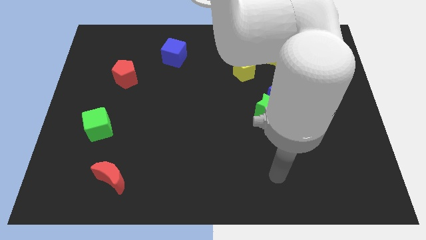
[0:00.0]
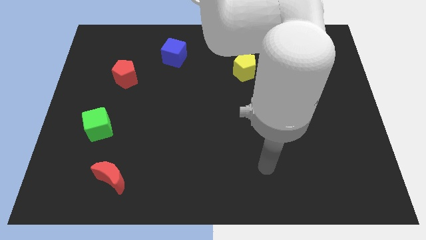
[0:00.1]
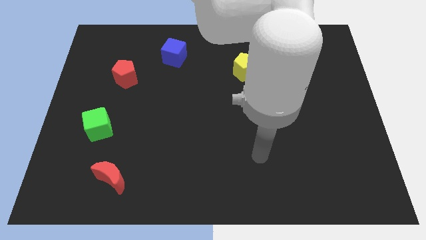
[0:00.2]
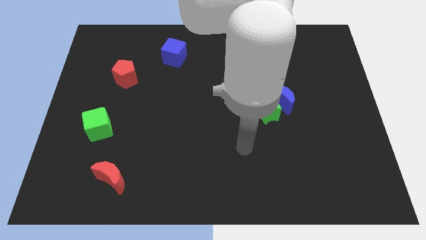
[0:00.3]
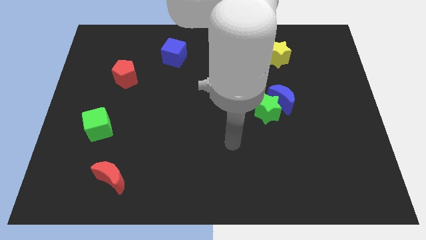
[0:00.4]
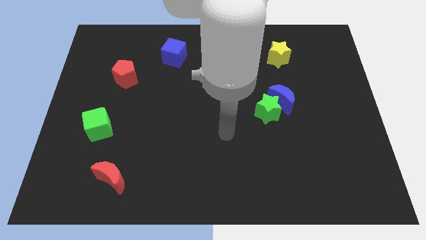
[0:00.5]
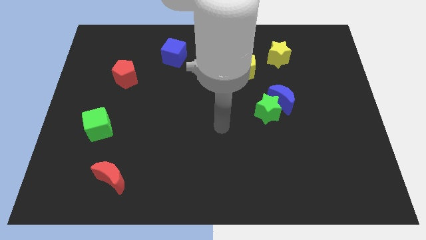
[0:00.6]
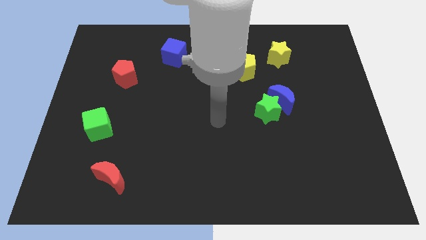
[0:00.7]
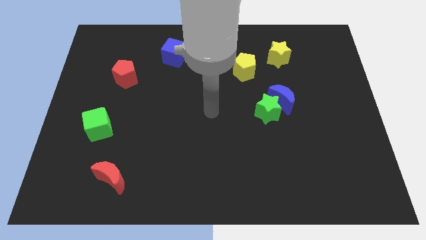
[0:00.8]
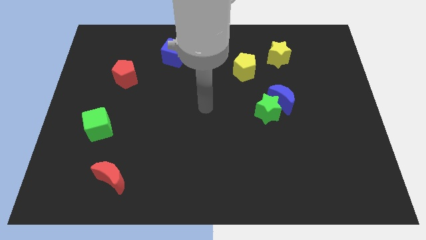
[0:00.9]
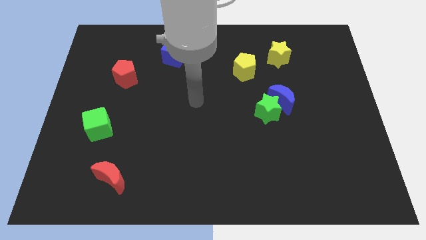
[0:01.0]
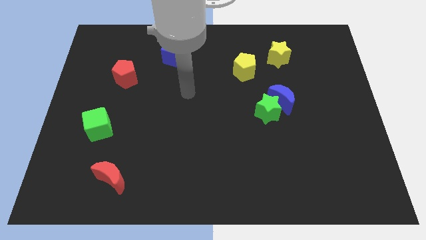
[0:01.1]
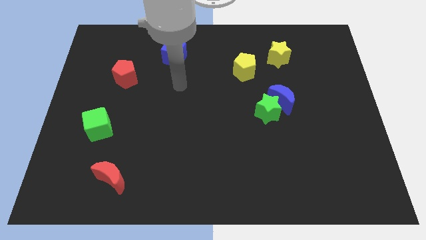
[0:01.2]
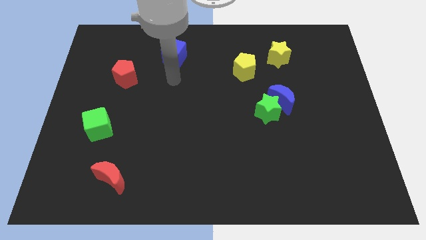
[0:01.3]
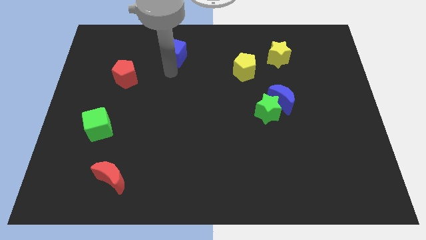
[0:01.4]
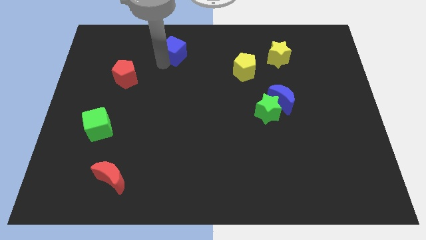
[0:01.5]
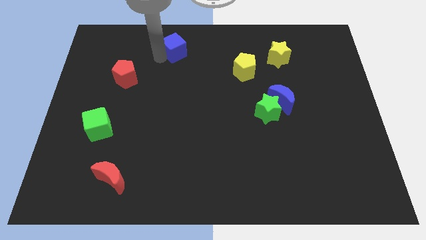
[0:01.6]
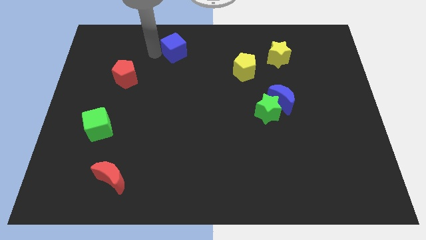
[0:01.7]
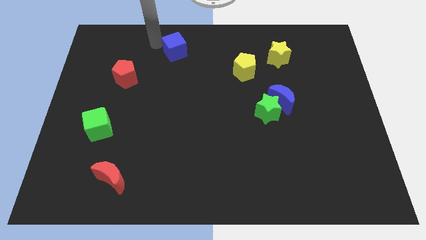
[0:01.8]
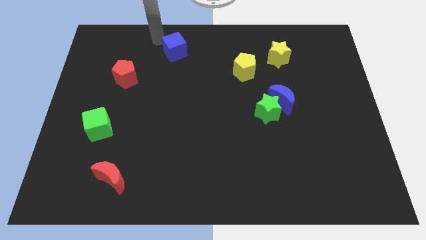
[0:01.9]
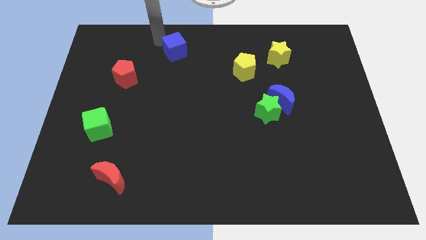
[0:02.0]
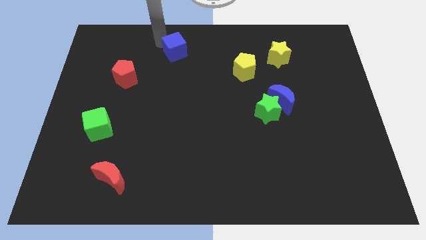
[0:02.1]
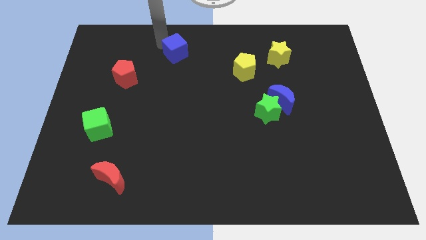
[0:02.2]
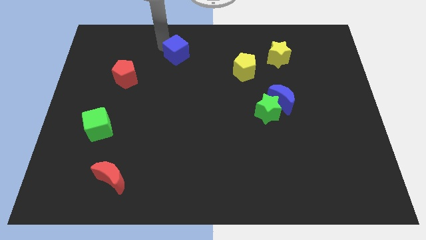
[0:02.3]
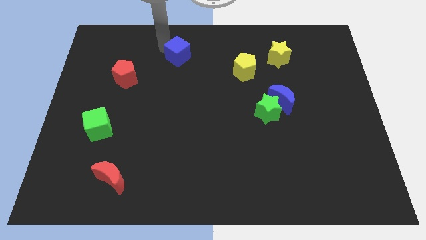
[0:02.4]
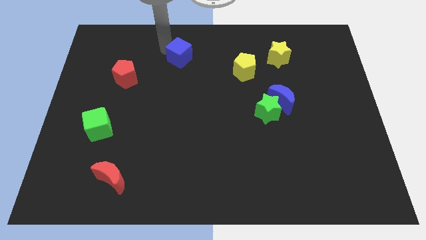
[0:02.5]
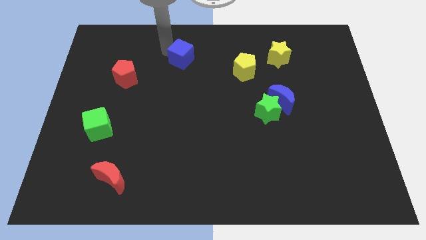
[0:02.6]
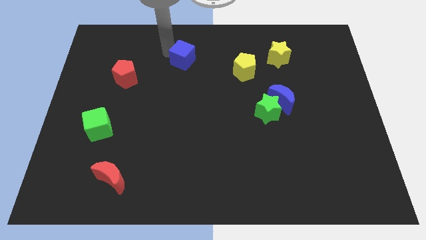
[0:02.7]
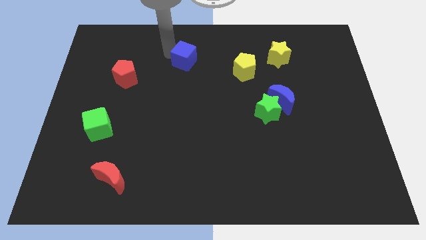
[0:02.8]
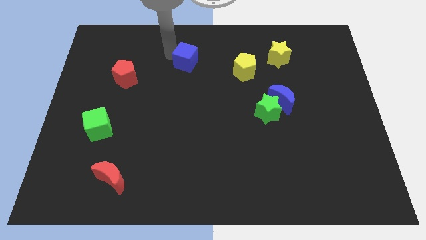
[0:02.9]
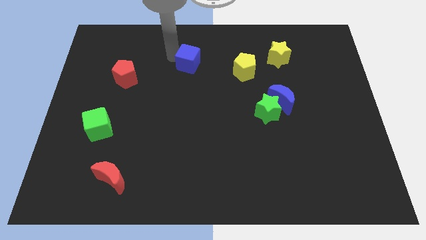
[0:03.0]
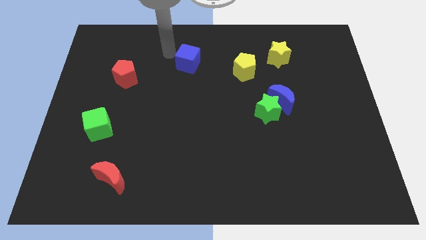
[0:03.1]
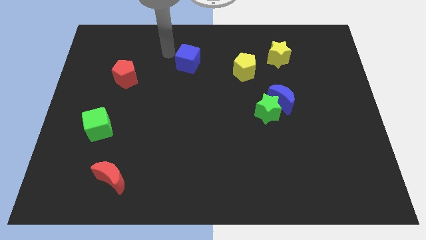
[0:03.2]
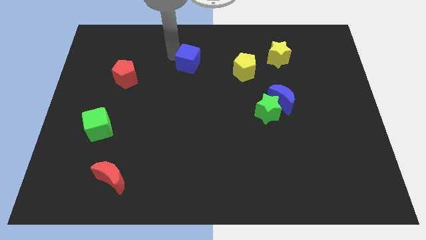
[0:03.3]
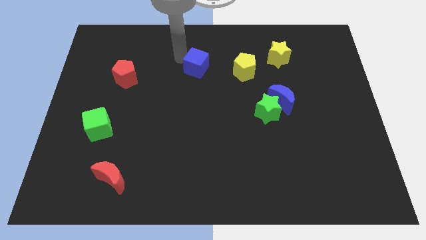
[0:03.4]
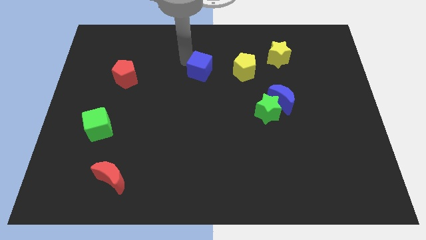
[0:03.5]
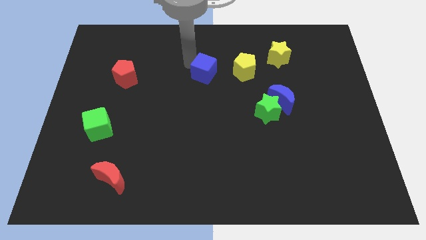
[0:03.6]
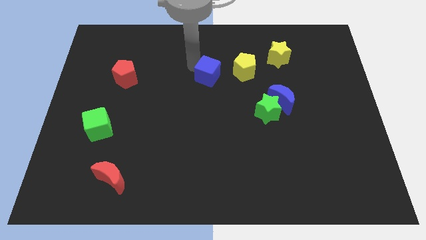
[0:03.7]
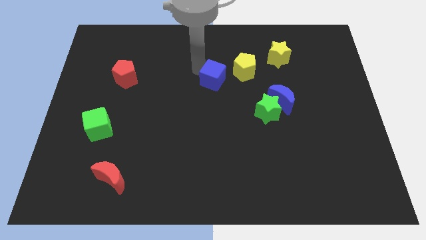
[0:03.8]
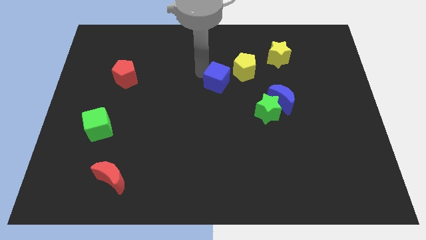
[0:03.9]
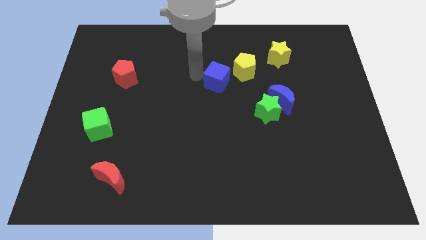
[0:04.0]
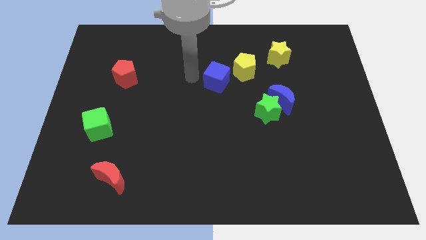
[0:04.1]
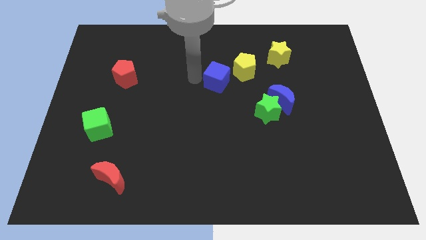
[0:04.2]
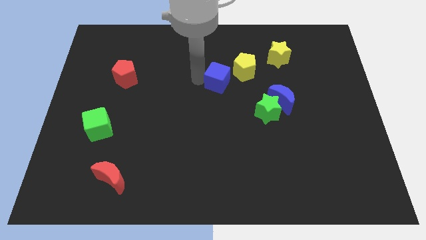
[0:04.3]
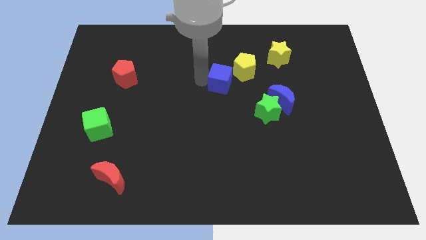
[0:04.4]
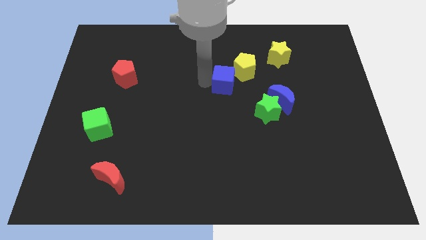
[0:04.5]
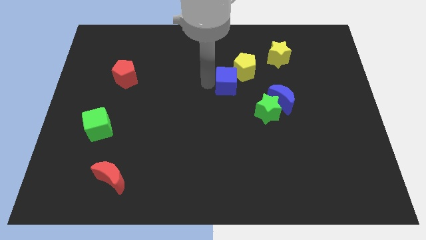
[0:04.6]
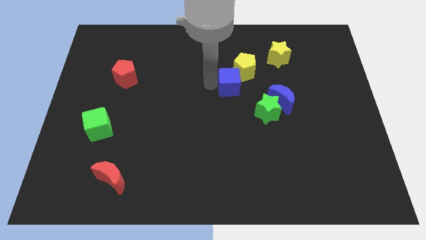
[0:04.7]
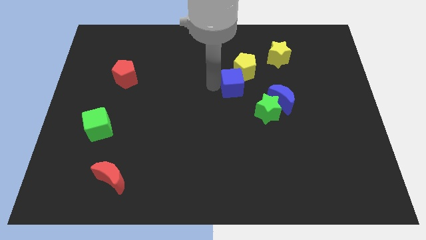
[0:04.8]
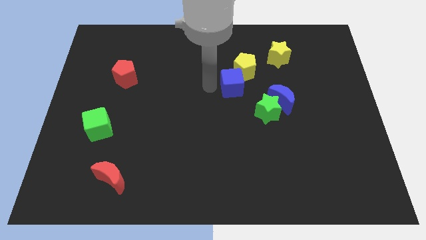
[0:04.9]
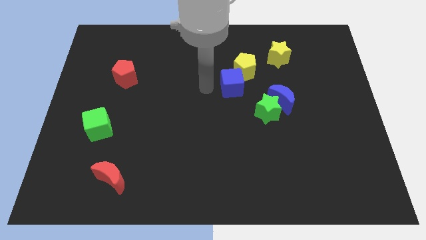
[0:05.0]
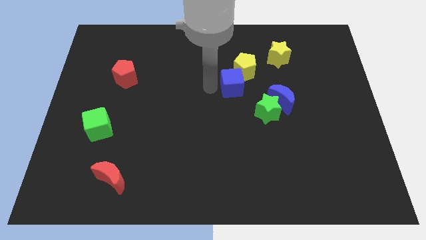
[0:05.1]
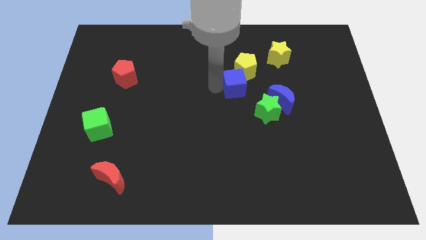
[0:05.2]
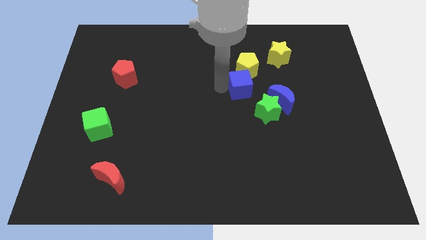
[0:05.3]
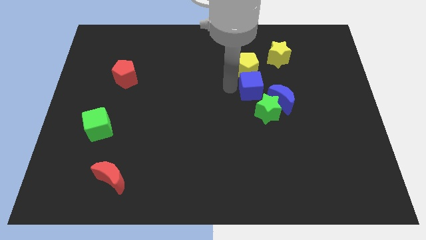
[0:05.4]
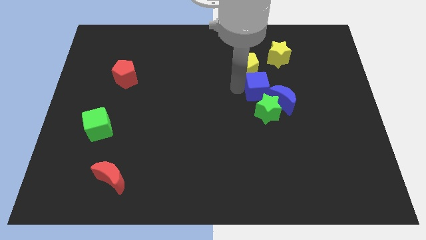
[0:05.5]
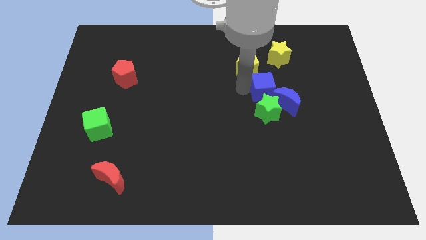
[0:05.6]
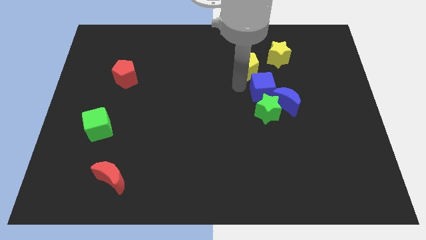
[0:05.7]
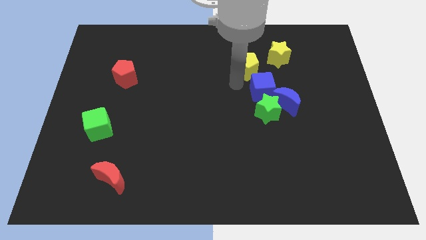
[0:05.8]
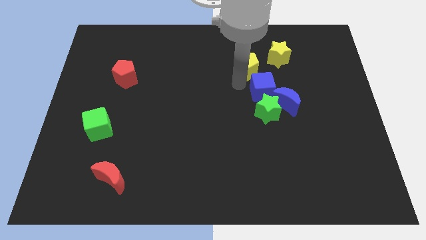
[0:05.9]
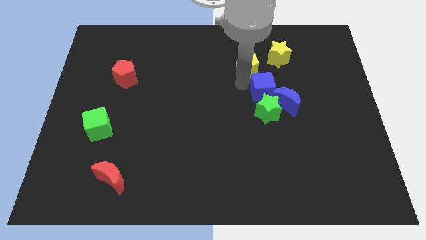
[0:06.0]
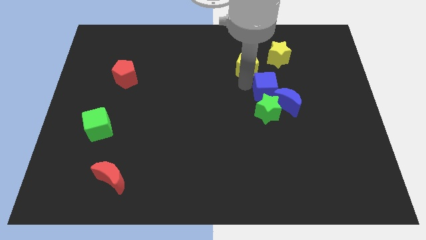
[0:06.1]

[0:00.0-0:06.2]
put the blue cube to the top right side of the green star

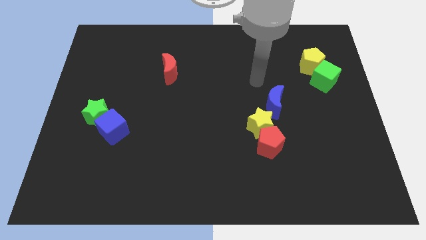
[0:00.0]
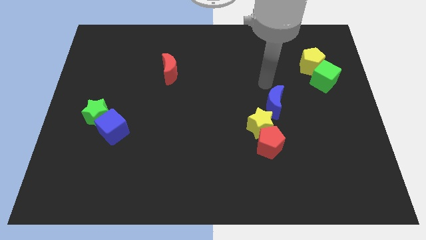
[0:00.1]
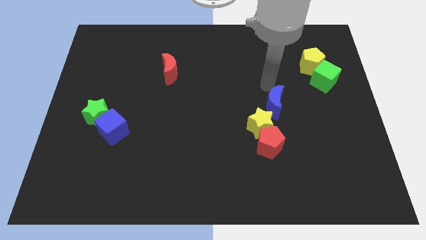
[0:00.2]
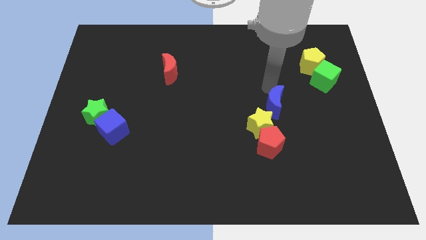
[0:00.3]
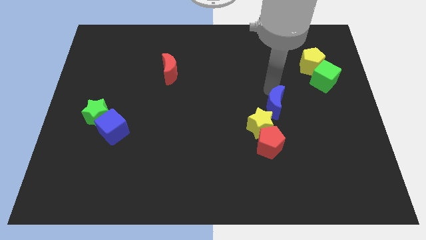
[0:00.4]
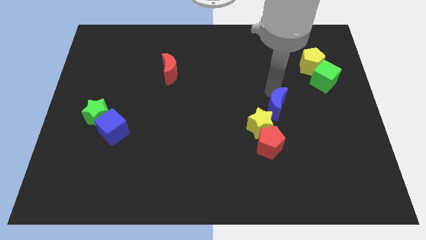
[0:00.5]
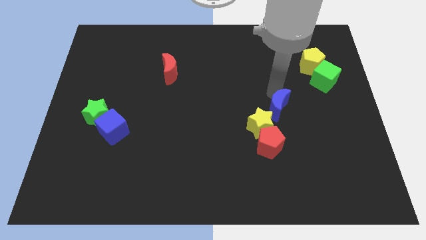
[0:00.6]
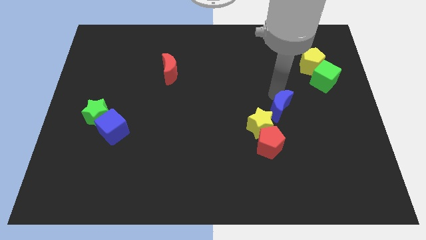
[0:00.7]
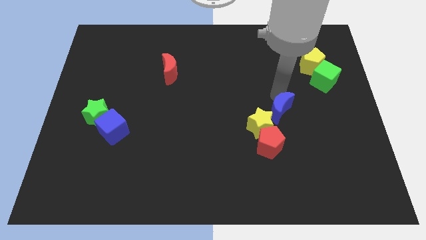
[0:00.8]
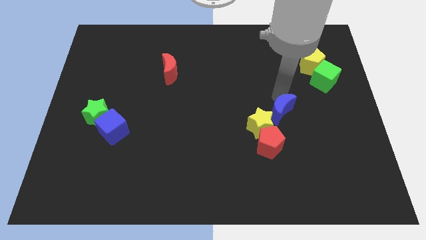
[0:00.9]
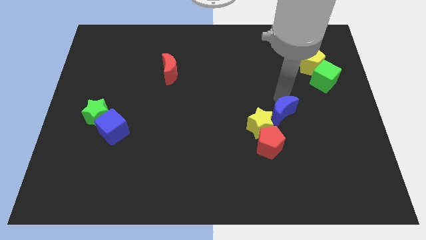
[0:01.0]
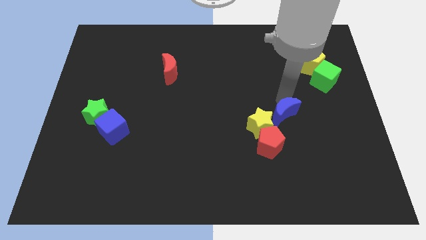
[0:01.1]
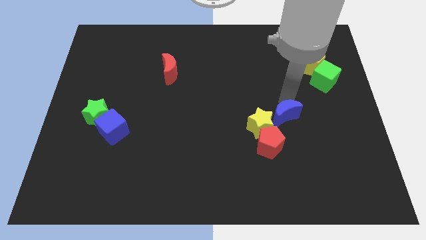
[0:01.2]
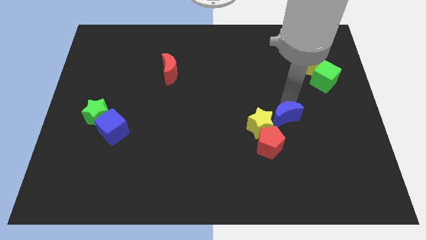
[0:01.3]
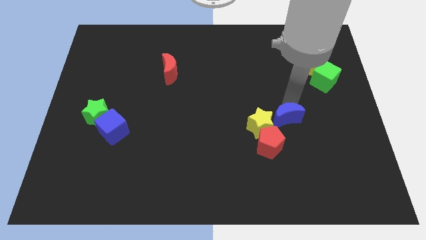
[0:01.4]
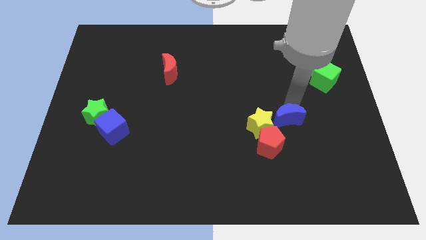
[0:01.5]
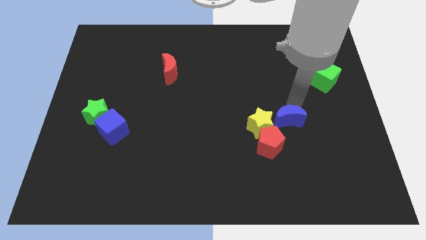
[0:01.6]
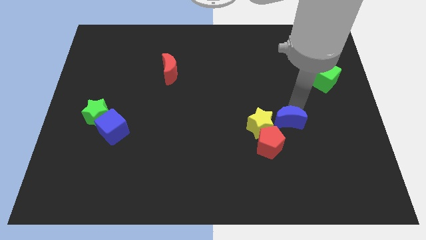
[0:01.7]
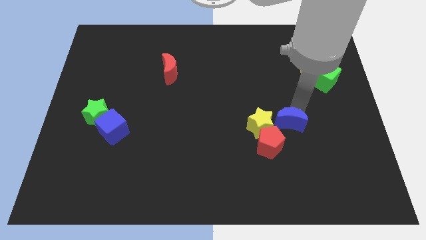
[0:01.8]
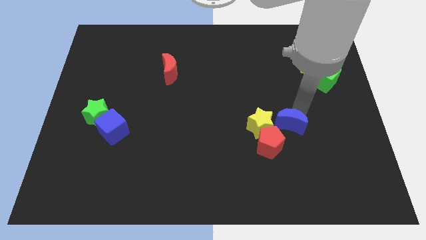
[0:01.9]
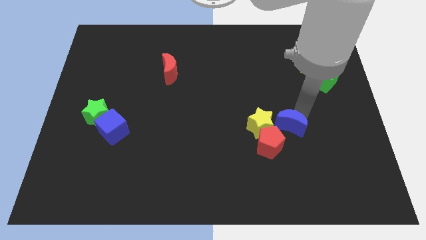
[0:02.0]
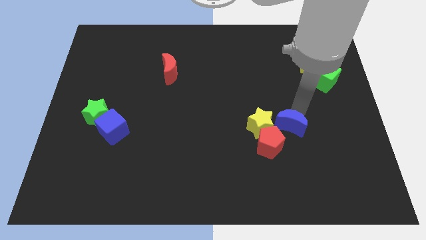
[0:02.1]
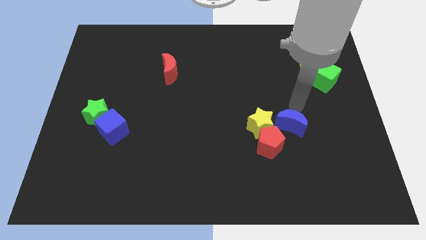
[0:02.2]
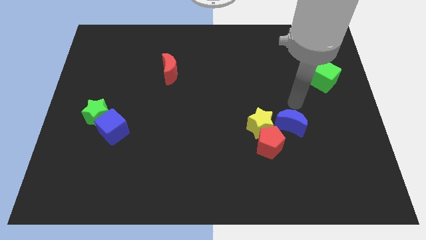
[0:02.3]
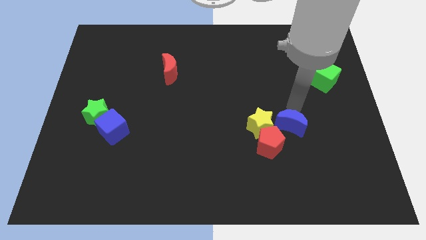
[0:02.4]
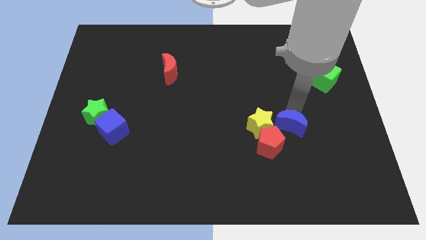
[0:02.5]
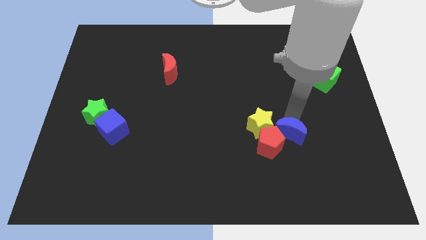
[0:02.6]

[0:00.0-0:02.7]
put the blue moon diagonally down and to the right of the yellow star
